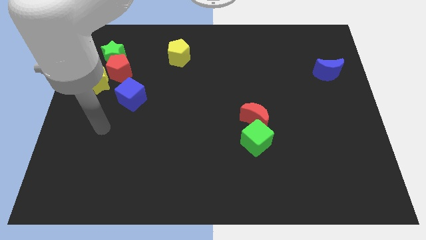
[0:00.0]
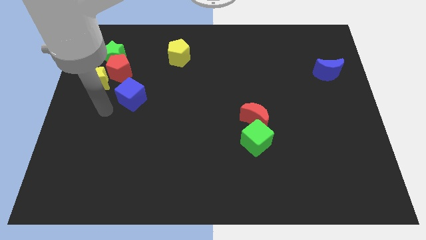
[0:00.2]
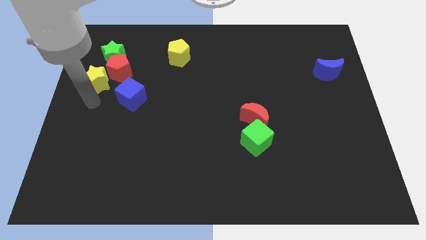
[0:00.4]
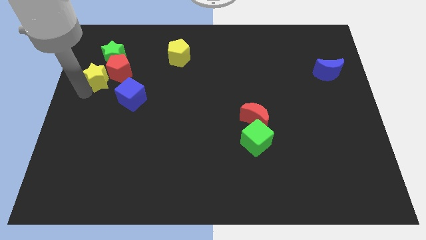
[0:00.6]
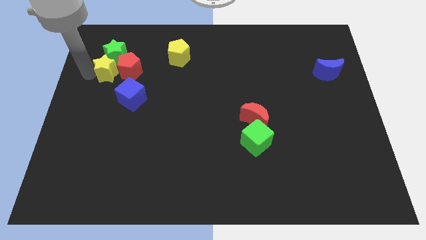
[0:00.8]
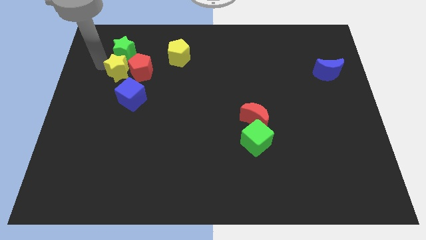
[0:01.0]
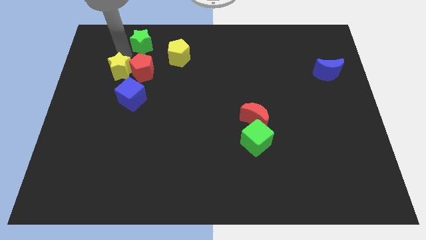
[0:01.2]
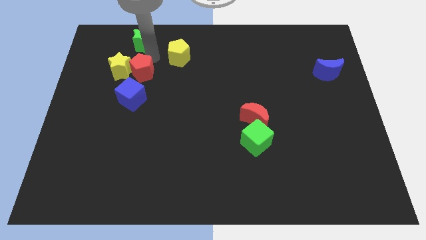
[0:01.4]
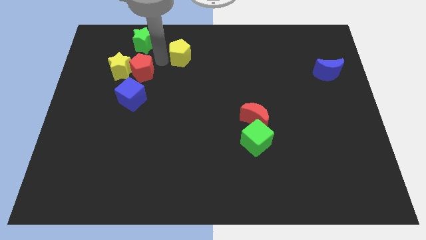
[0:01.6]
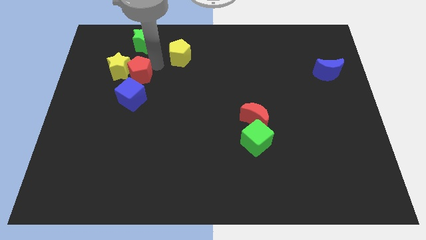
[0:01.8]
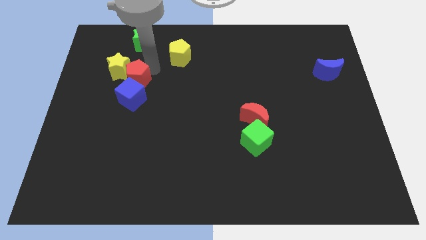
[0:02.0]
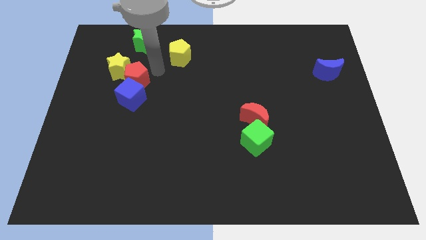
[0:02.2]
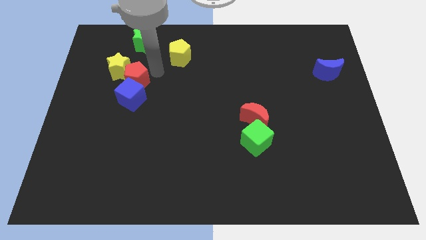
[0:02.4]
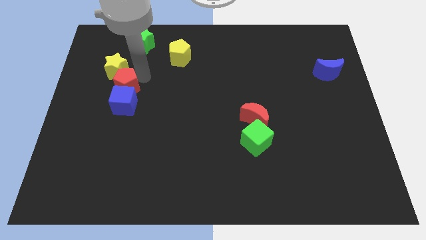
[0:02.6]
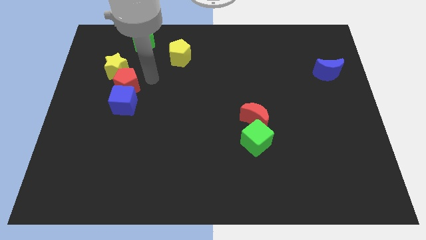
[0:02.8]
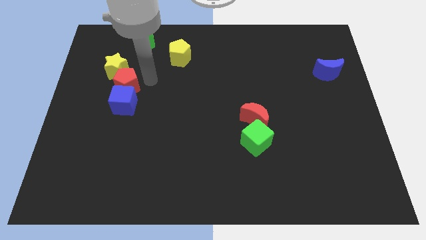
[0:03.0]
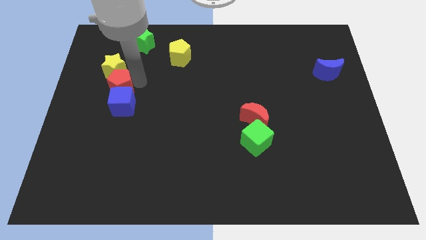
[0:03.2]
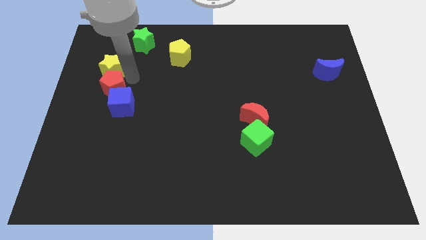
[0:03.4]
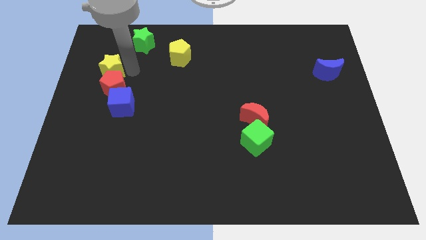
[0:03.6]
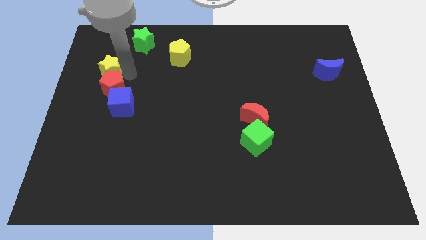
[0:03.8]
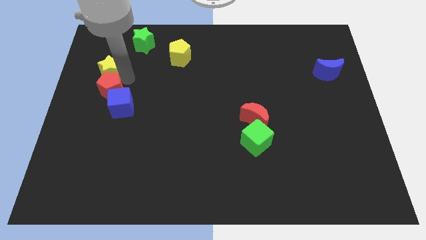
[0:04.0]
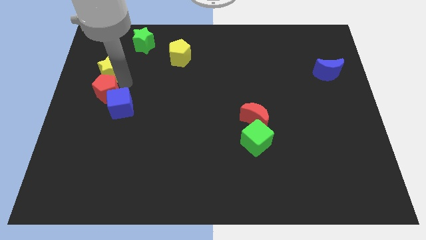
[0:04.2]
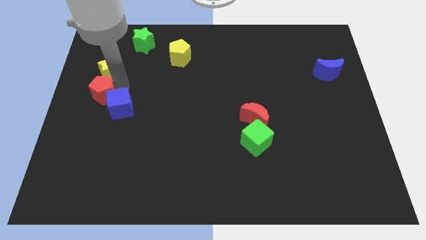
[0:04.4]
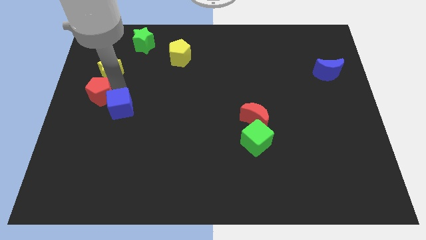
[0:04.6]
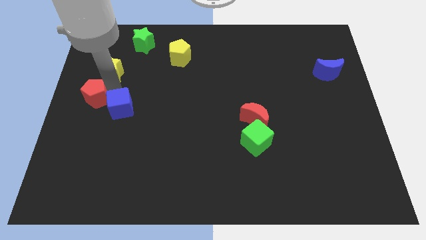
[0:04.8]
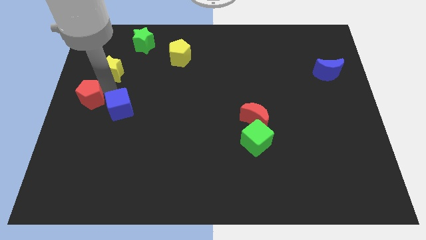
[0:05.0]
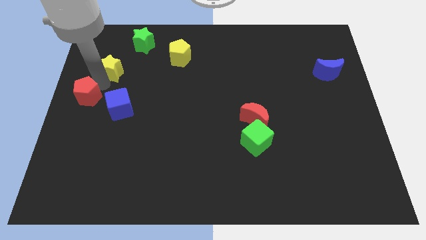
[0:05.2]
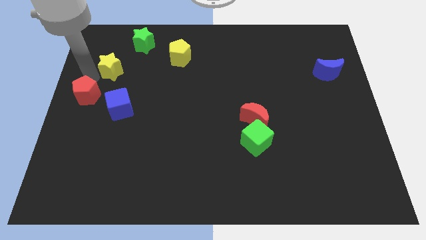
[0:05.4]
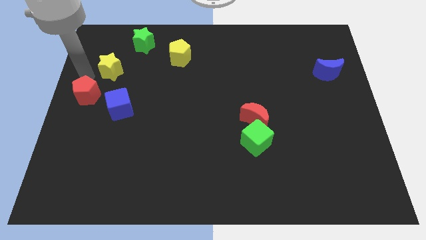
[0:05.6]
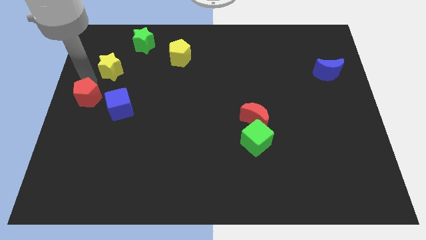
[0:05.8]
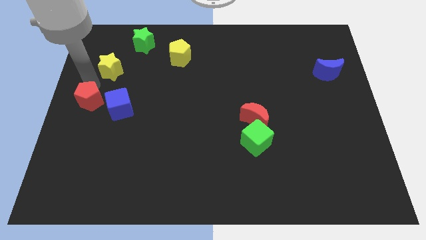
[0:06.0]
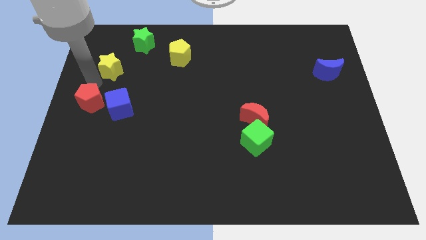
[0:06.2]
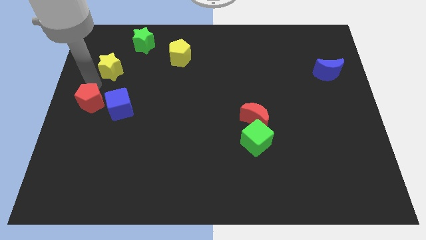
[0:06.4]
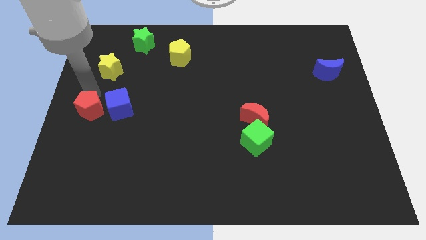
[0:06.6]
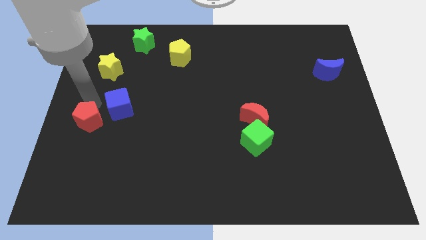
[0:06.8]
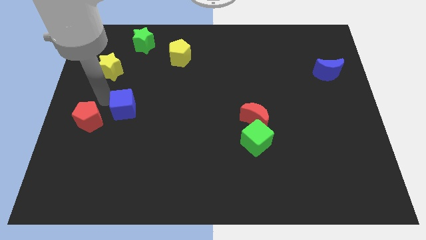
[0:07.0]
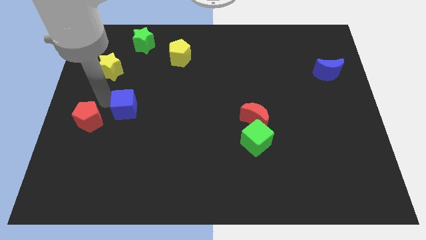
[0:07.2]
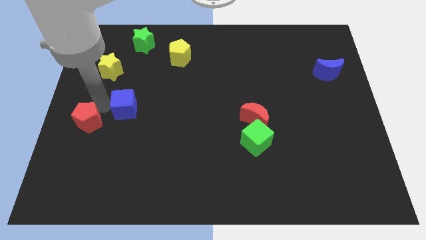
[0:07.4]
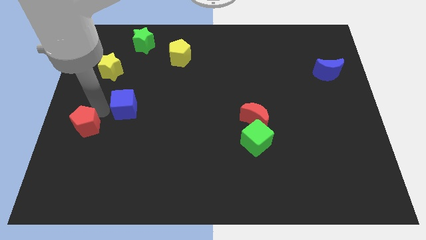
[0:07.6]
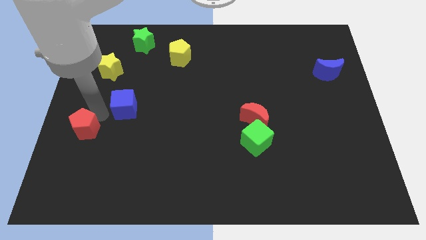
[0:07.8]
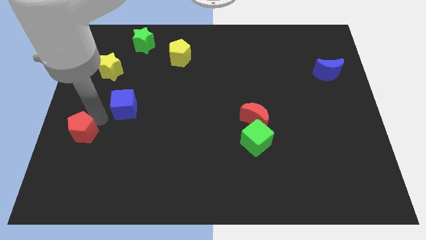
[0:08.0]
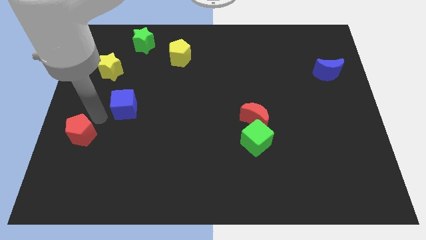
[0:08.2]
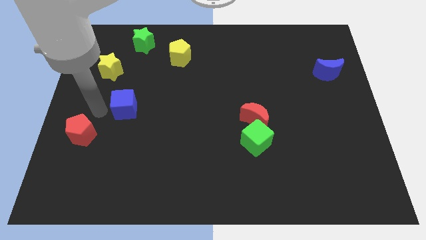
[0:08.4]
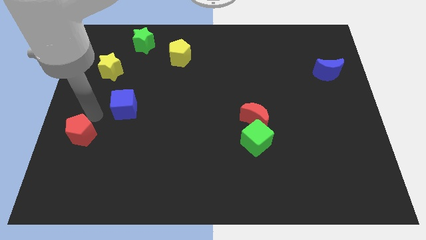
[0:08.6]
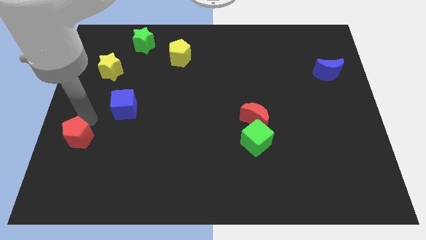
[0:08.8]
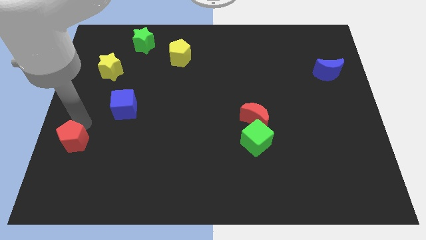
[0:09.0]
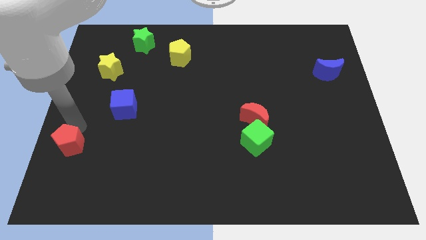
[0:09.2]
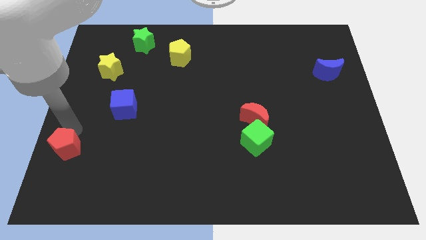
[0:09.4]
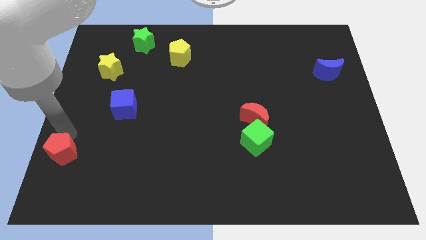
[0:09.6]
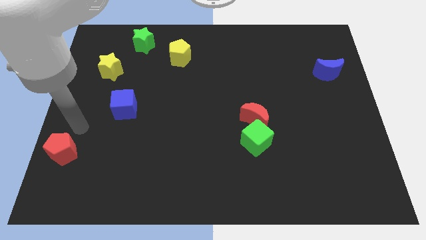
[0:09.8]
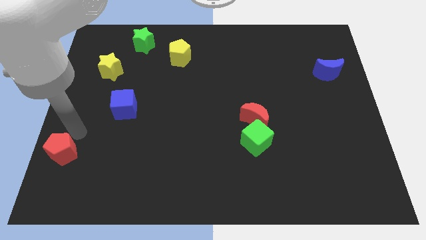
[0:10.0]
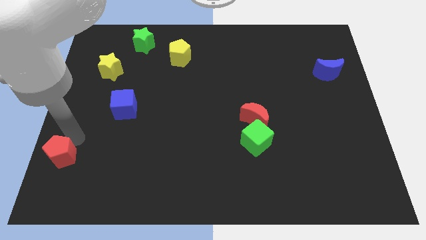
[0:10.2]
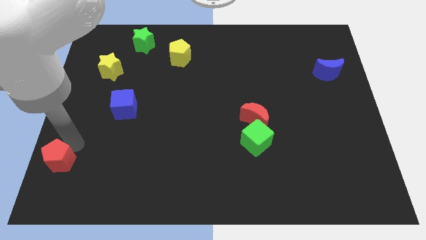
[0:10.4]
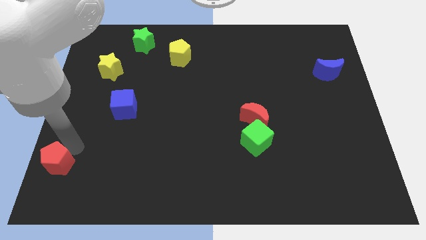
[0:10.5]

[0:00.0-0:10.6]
move the red pentagon to the lower left corner

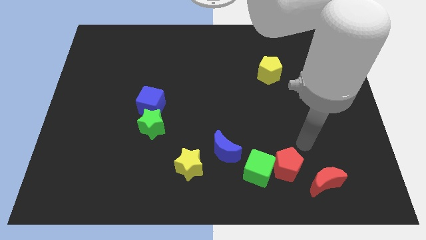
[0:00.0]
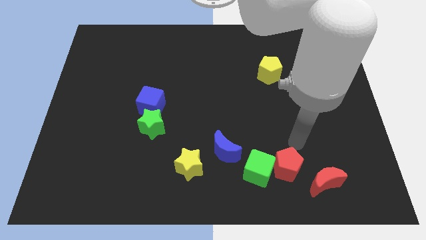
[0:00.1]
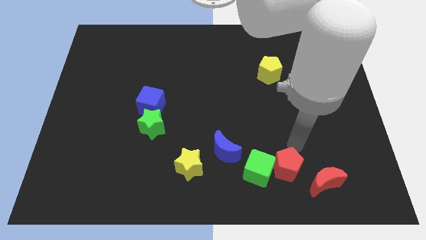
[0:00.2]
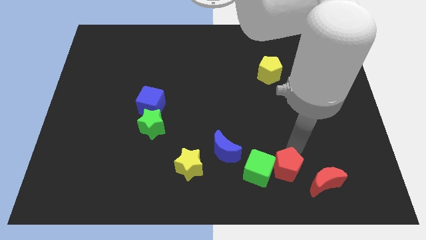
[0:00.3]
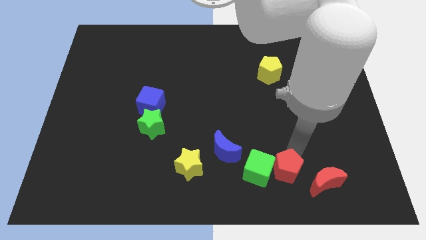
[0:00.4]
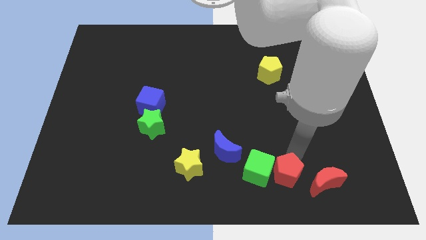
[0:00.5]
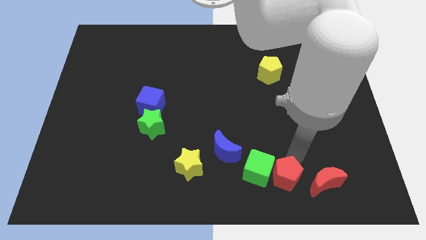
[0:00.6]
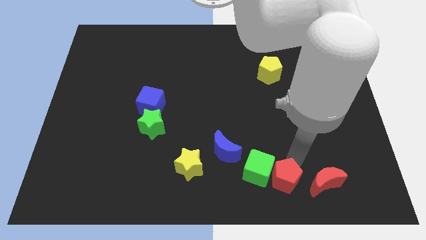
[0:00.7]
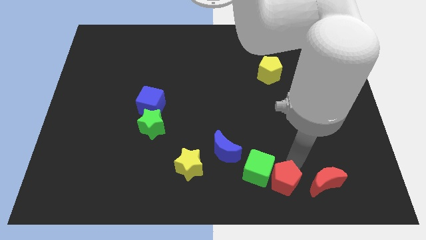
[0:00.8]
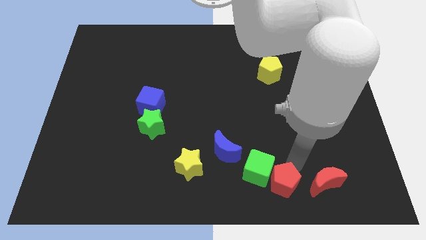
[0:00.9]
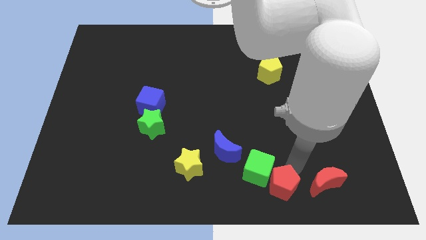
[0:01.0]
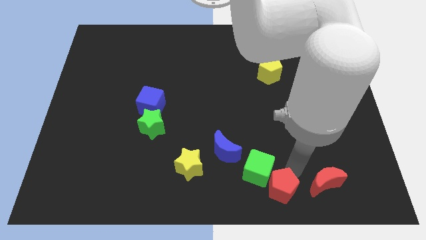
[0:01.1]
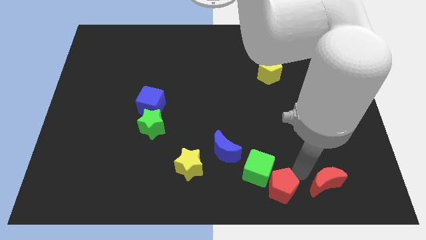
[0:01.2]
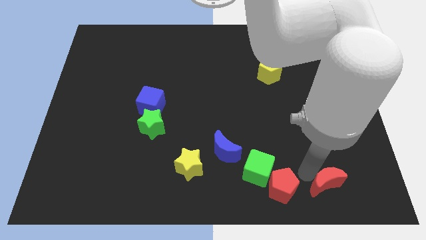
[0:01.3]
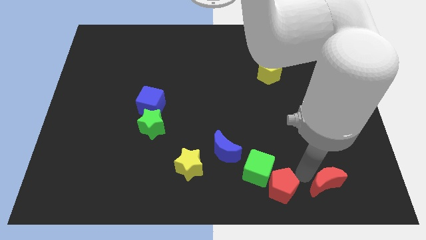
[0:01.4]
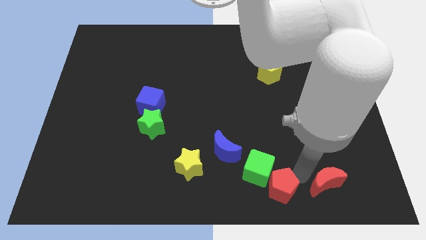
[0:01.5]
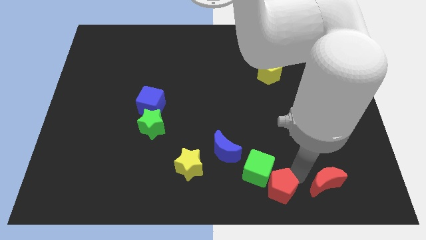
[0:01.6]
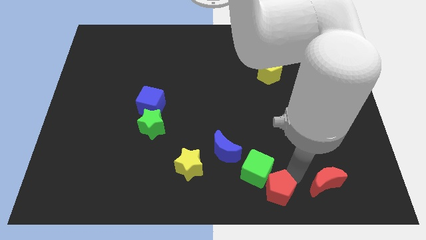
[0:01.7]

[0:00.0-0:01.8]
push the red pentagon to the bottom side
